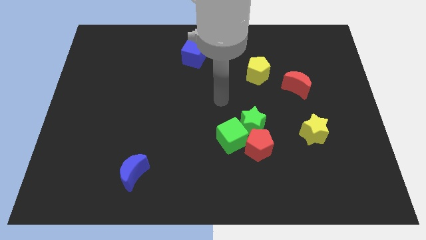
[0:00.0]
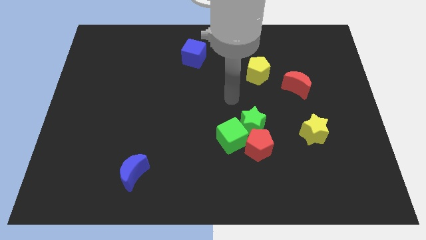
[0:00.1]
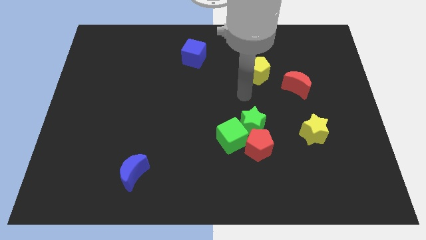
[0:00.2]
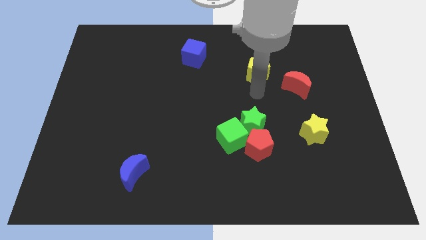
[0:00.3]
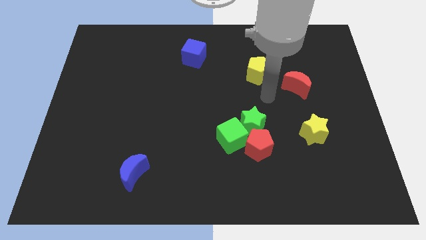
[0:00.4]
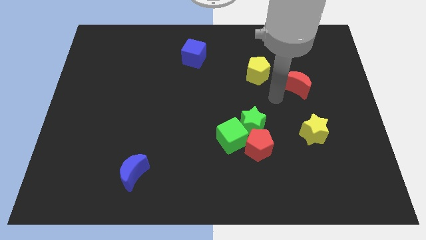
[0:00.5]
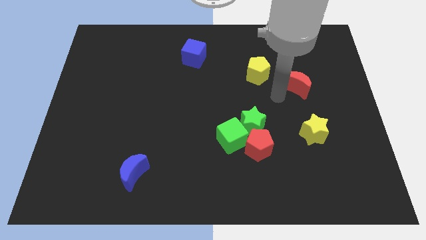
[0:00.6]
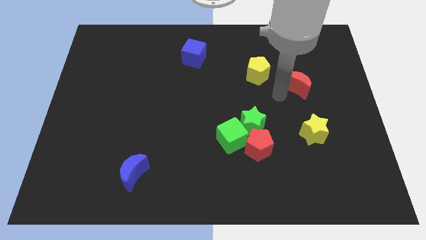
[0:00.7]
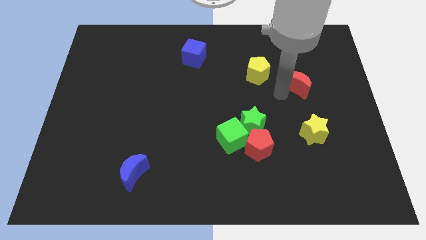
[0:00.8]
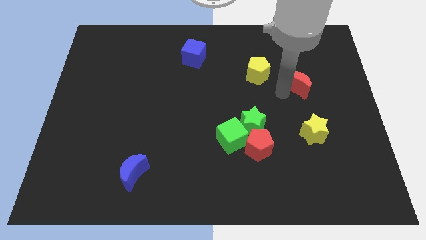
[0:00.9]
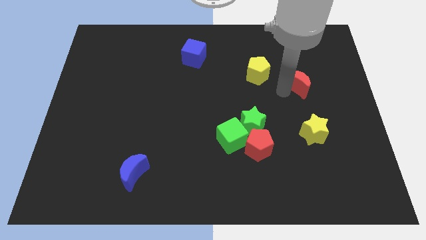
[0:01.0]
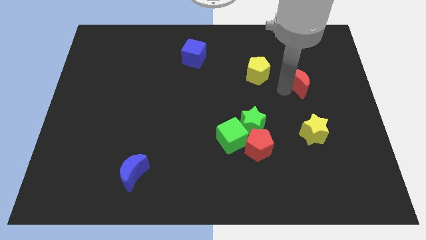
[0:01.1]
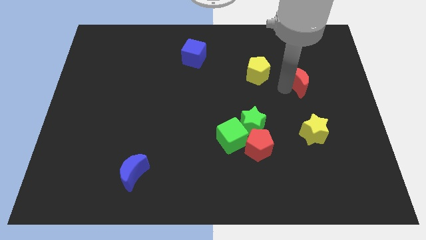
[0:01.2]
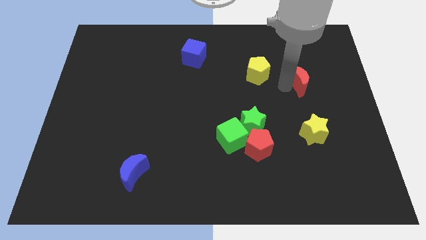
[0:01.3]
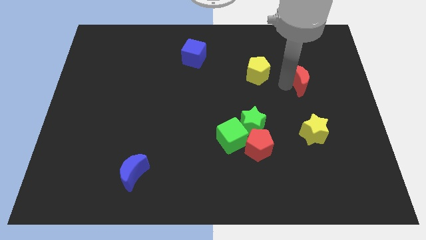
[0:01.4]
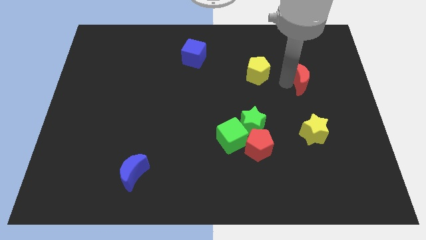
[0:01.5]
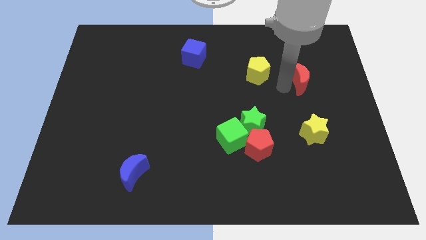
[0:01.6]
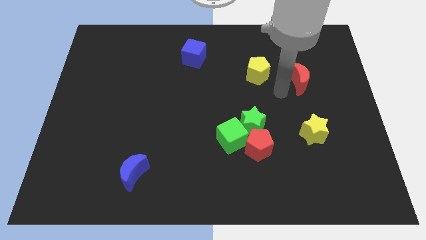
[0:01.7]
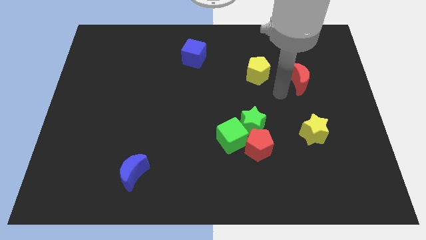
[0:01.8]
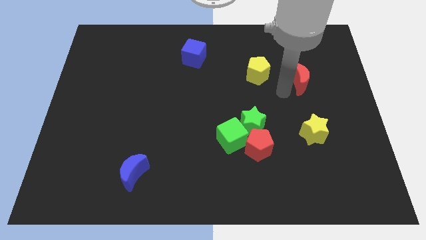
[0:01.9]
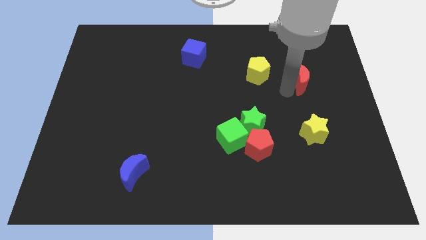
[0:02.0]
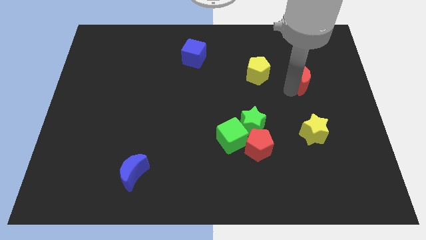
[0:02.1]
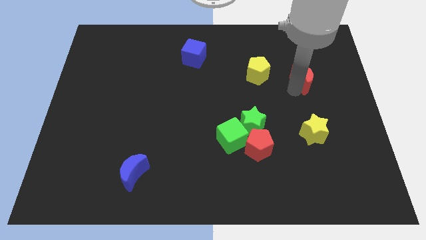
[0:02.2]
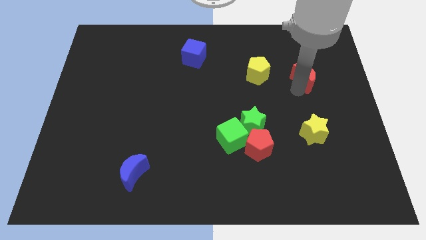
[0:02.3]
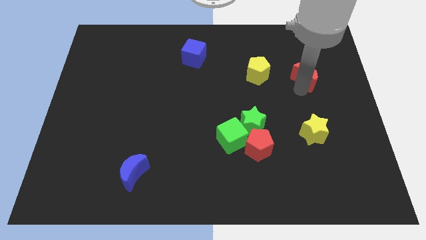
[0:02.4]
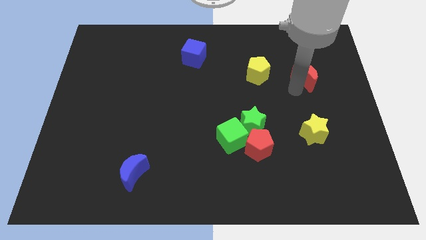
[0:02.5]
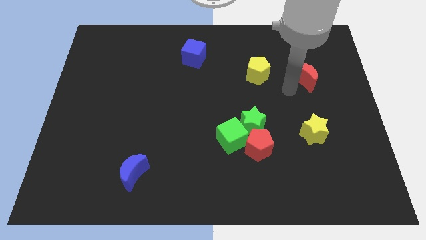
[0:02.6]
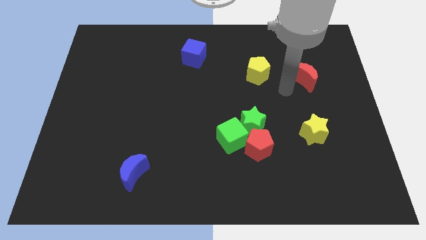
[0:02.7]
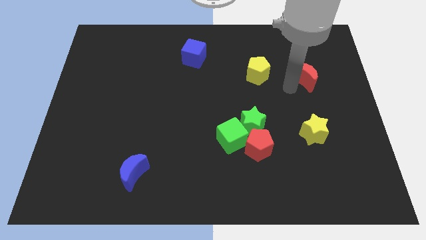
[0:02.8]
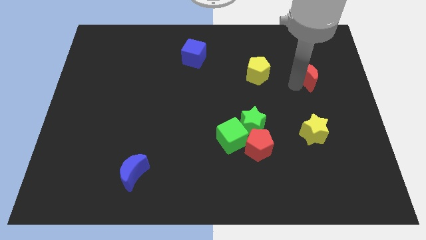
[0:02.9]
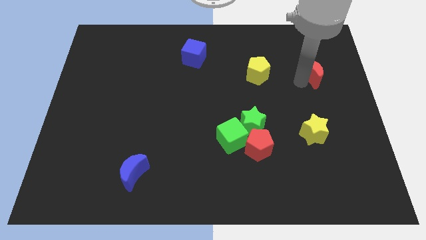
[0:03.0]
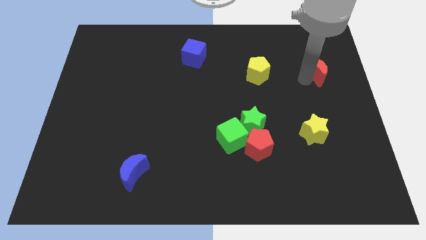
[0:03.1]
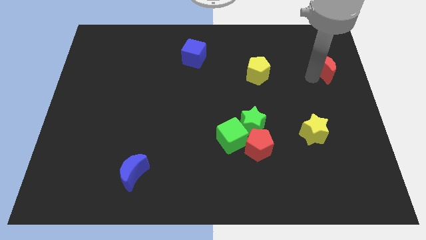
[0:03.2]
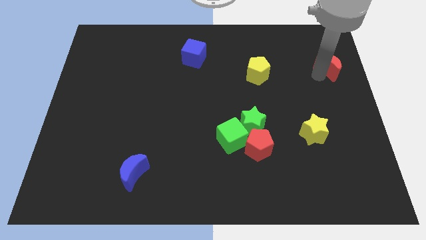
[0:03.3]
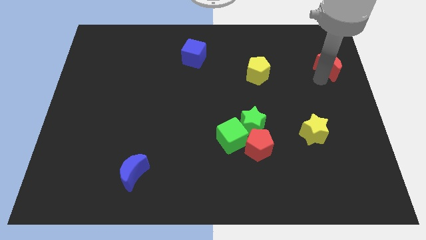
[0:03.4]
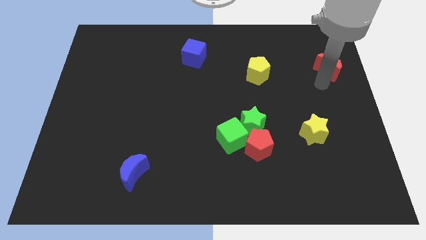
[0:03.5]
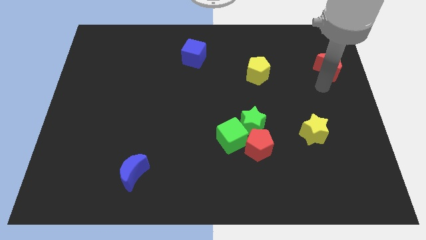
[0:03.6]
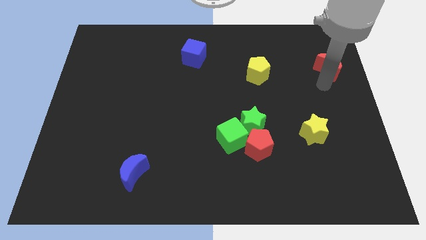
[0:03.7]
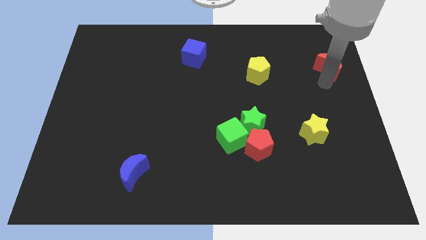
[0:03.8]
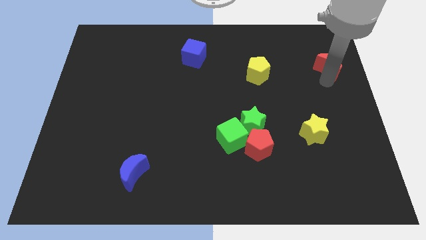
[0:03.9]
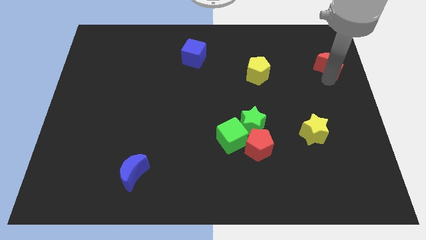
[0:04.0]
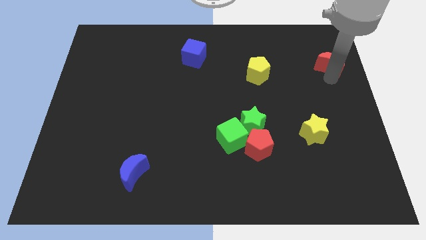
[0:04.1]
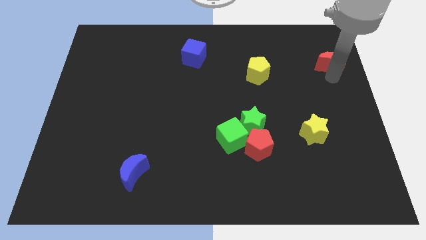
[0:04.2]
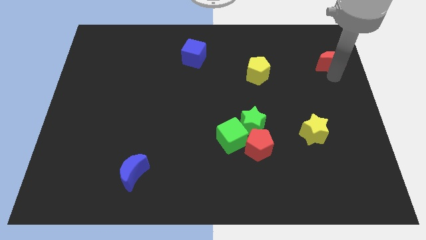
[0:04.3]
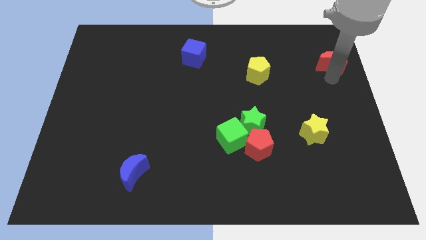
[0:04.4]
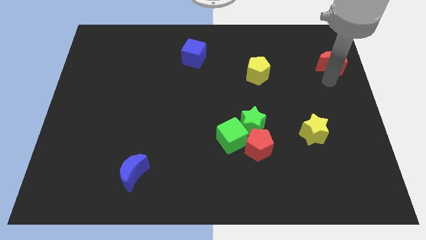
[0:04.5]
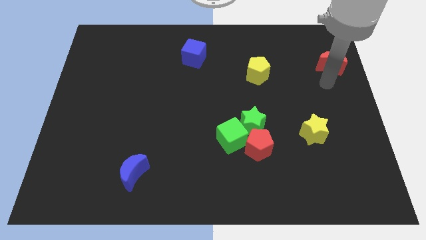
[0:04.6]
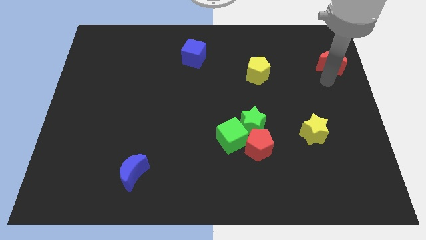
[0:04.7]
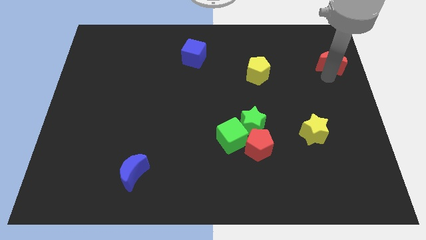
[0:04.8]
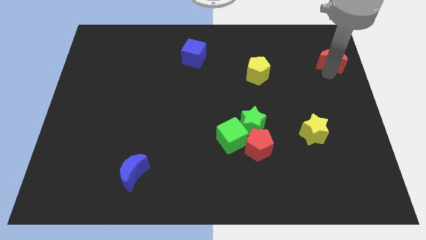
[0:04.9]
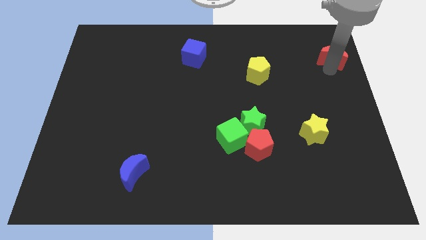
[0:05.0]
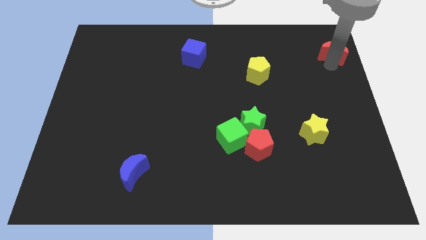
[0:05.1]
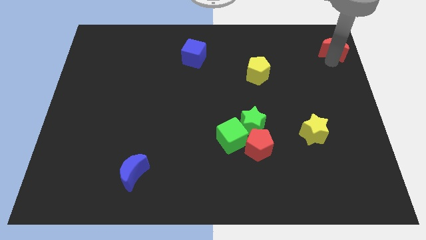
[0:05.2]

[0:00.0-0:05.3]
put the red moon to the top right

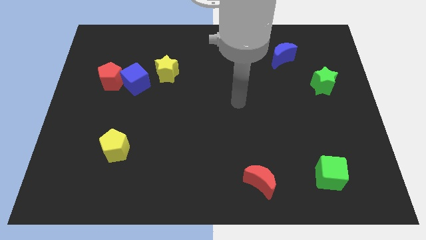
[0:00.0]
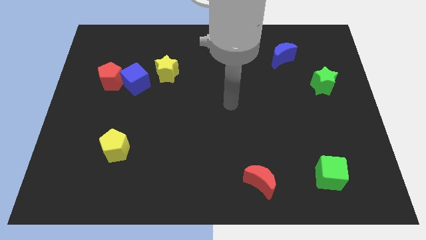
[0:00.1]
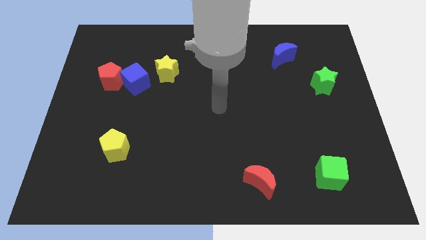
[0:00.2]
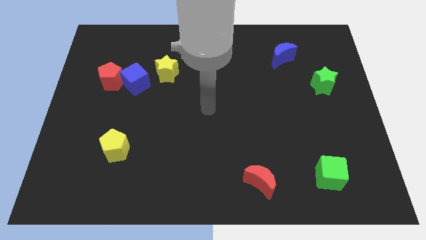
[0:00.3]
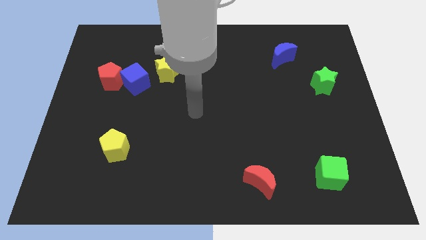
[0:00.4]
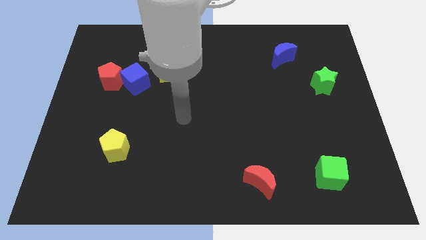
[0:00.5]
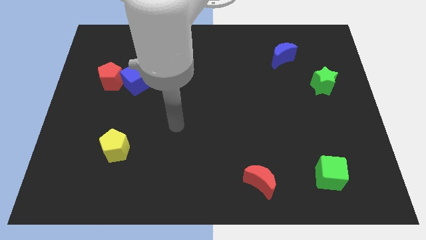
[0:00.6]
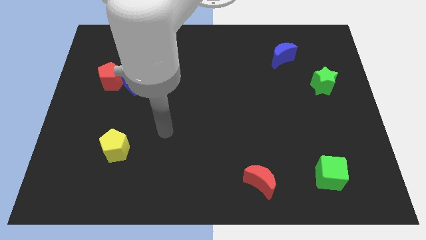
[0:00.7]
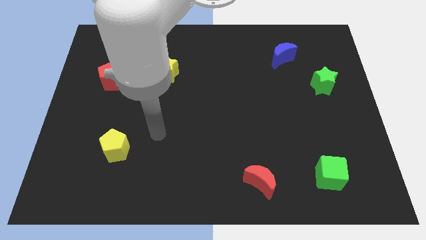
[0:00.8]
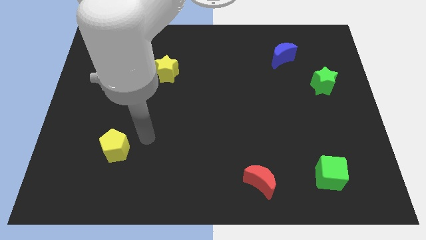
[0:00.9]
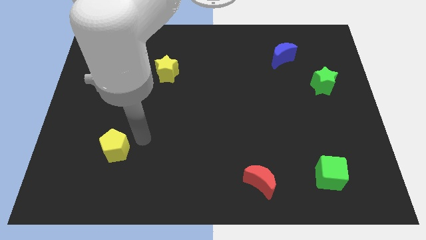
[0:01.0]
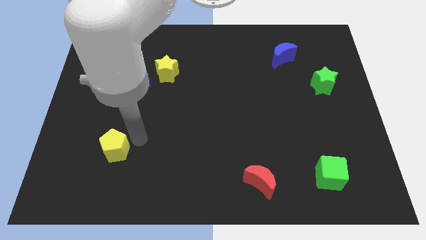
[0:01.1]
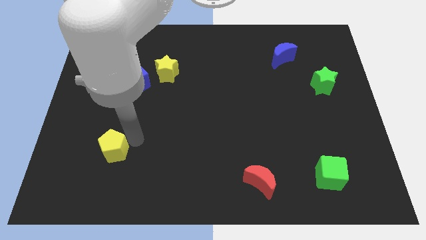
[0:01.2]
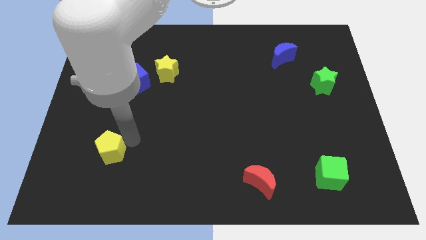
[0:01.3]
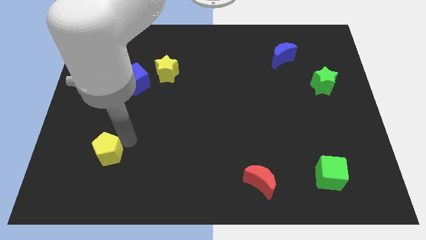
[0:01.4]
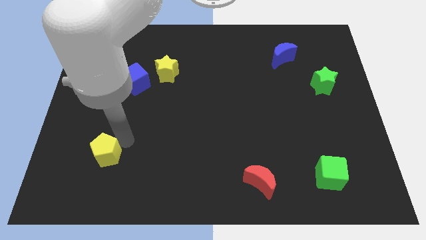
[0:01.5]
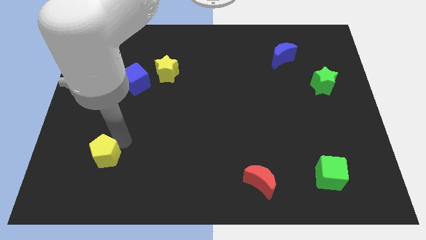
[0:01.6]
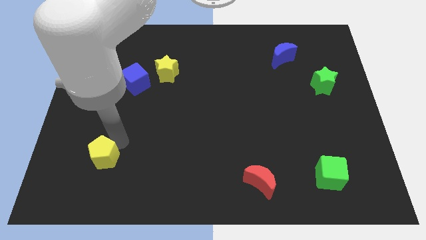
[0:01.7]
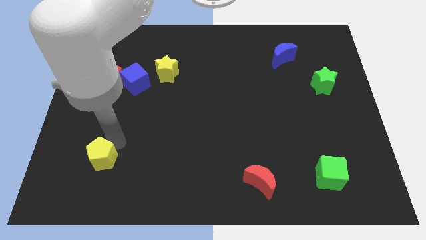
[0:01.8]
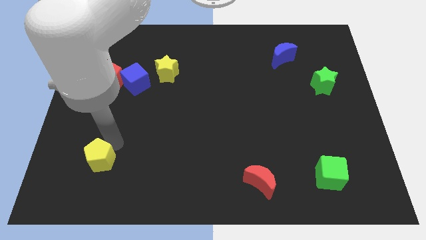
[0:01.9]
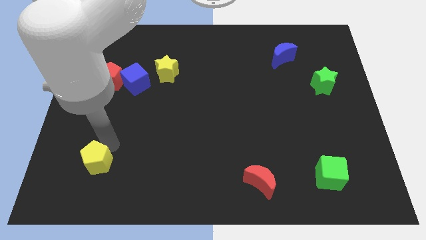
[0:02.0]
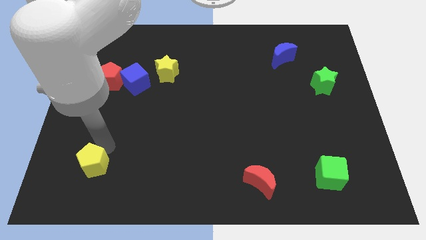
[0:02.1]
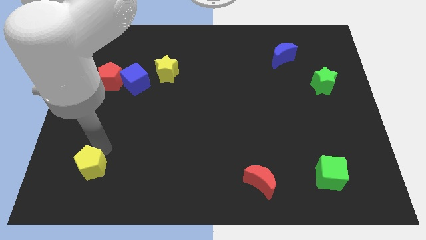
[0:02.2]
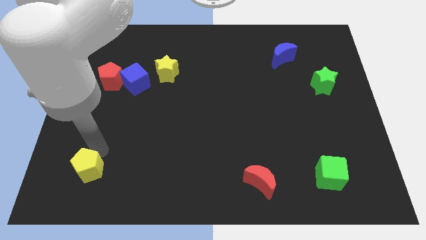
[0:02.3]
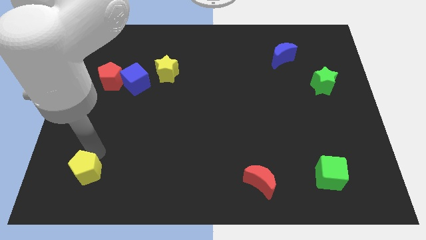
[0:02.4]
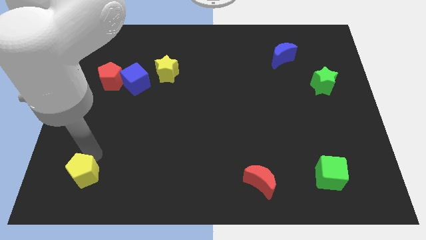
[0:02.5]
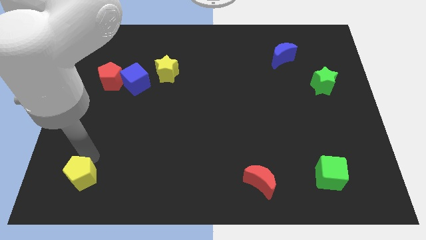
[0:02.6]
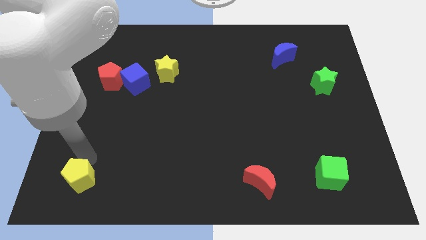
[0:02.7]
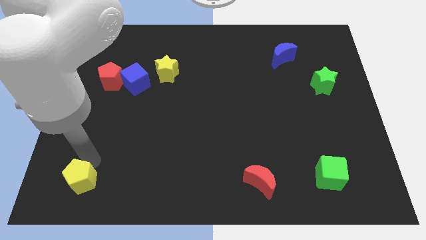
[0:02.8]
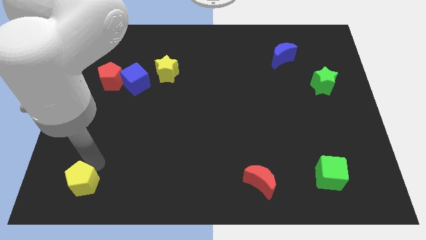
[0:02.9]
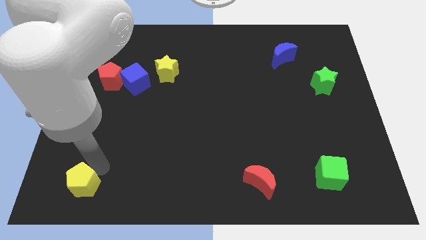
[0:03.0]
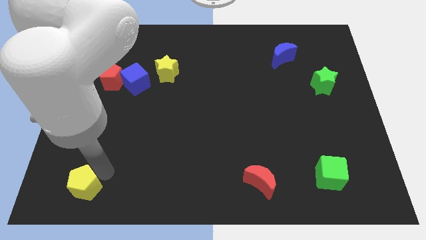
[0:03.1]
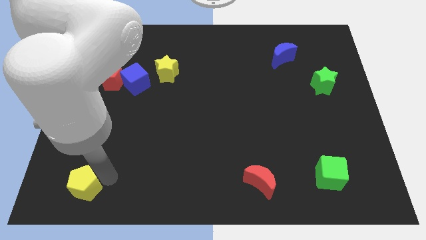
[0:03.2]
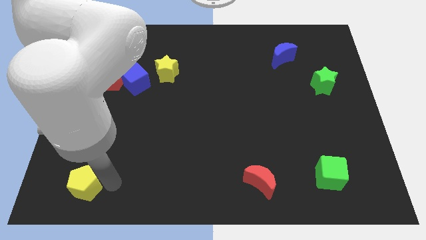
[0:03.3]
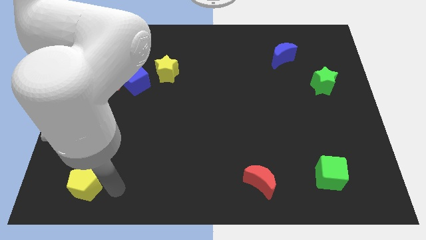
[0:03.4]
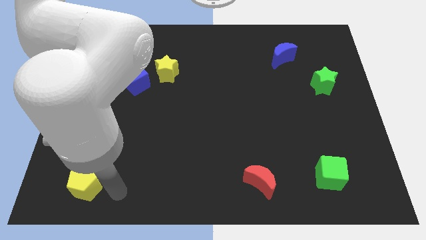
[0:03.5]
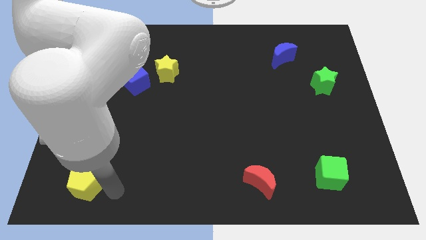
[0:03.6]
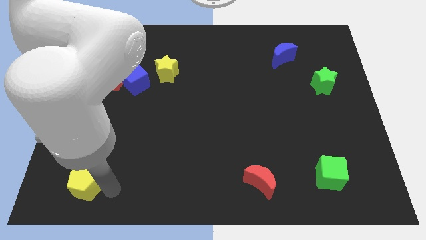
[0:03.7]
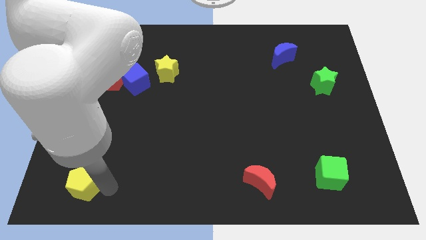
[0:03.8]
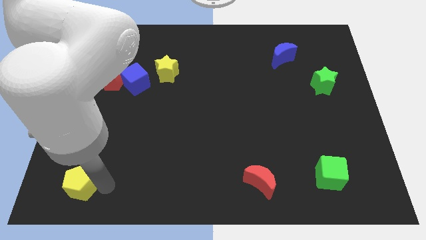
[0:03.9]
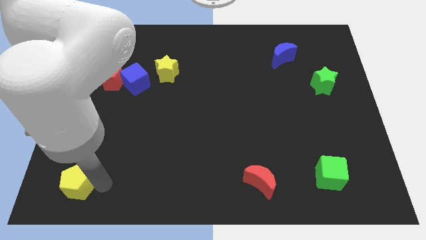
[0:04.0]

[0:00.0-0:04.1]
slide the yellow pentagon to the bottom left
